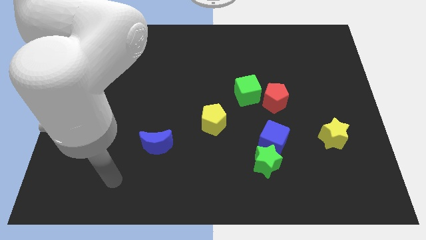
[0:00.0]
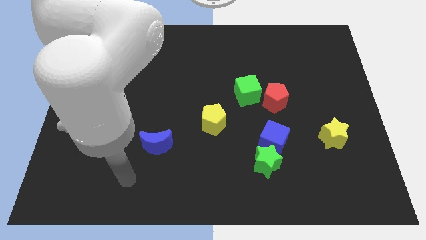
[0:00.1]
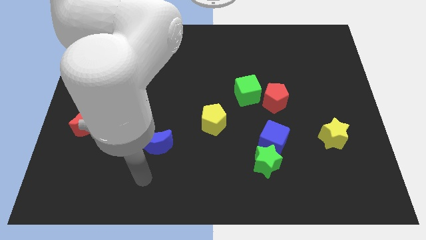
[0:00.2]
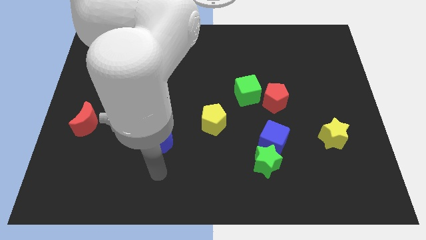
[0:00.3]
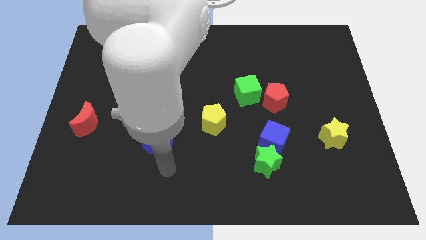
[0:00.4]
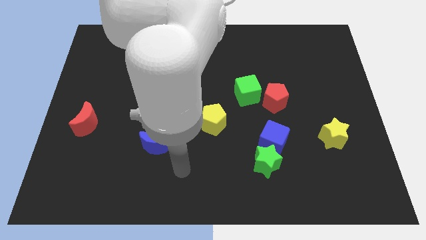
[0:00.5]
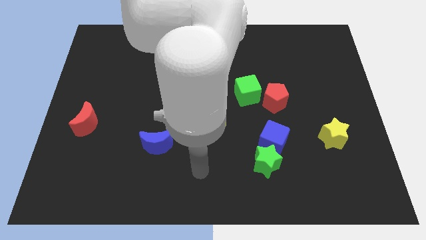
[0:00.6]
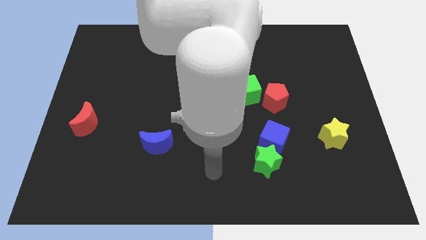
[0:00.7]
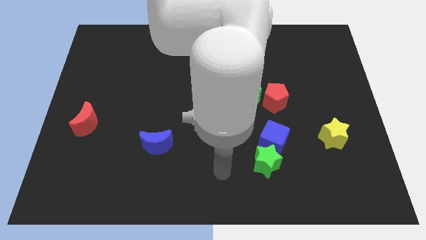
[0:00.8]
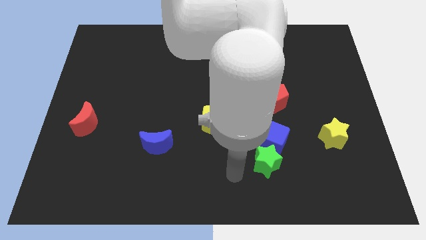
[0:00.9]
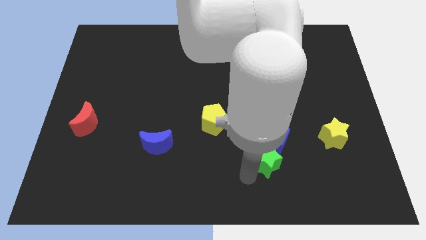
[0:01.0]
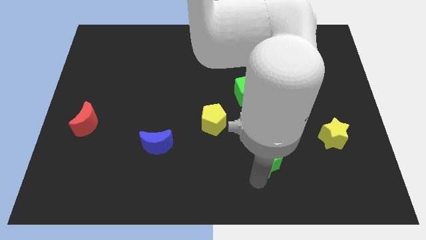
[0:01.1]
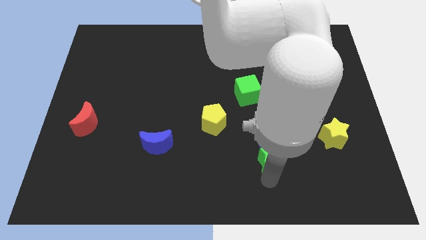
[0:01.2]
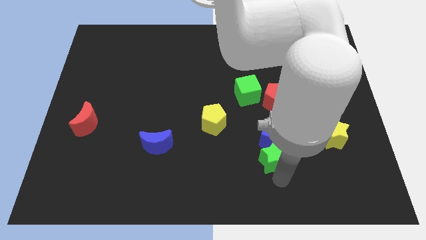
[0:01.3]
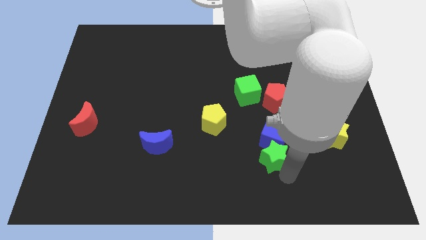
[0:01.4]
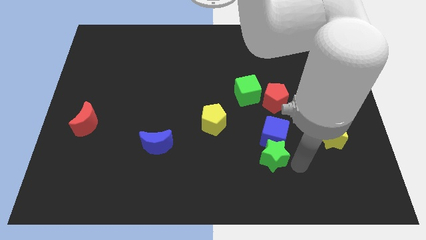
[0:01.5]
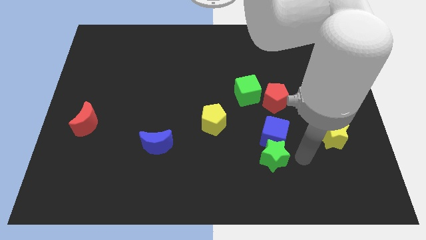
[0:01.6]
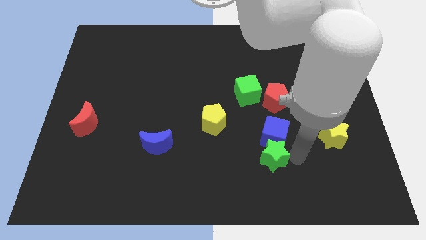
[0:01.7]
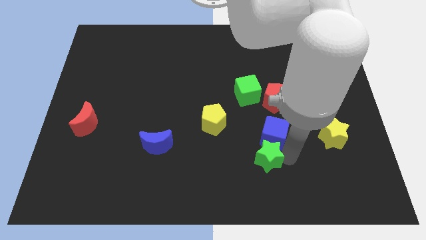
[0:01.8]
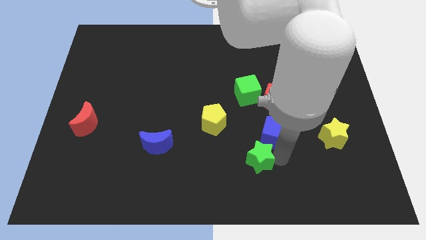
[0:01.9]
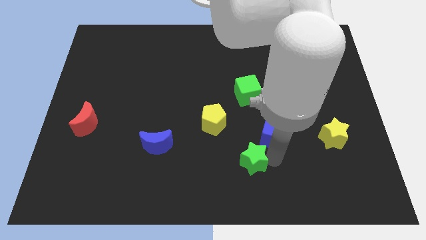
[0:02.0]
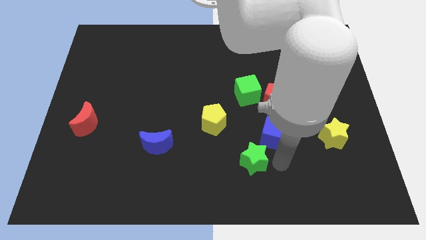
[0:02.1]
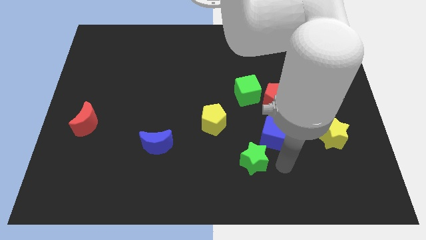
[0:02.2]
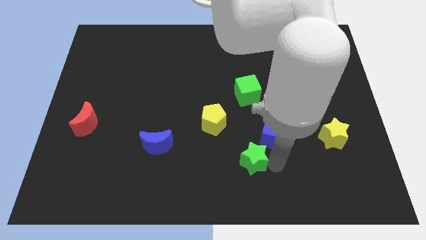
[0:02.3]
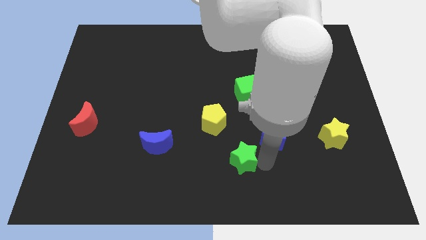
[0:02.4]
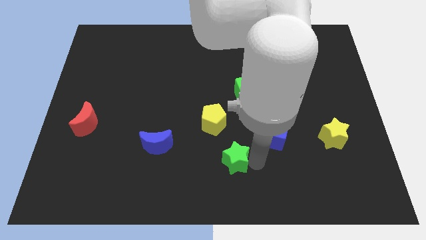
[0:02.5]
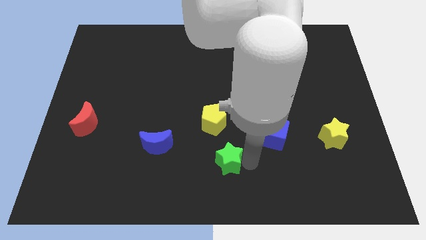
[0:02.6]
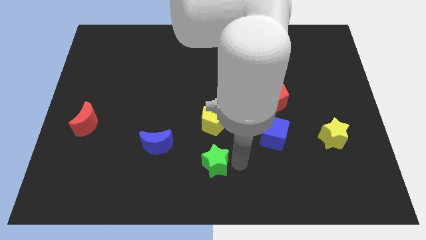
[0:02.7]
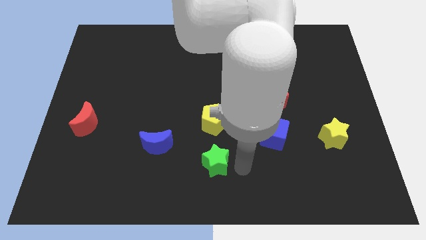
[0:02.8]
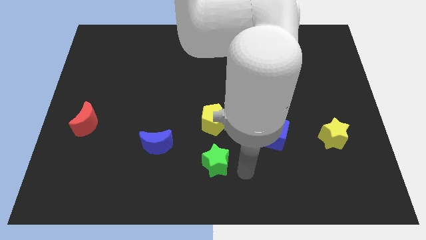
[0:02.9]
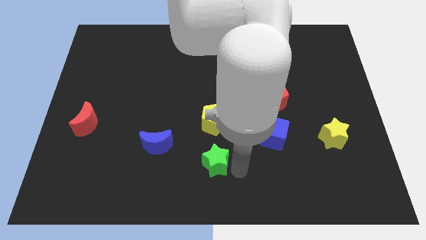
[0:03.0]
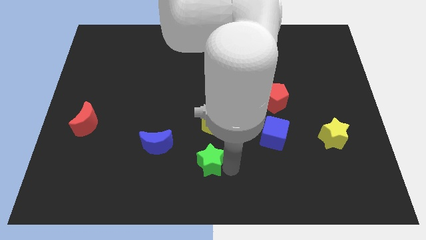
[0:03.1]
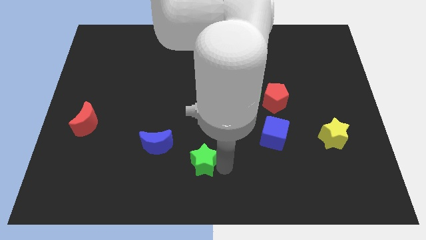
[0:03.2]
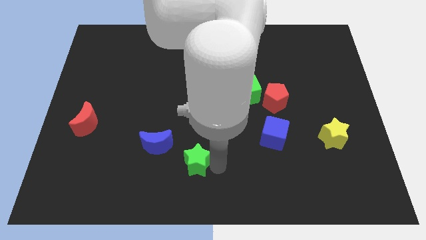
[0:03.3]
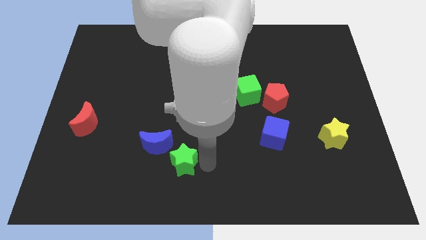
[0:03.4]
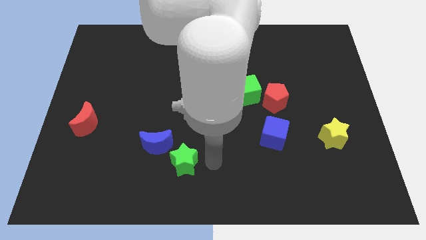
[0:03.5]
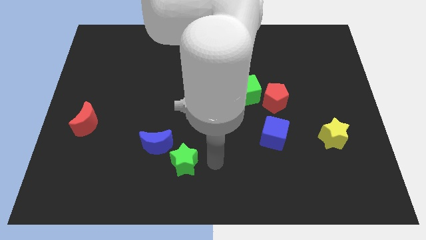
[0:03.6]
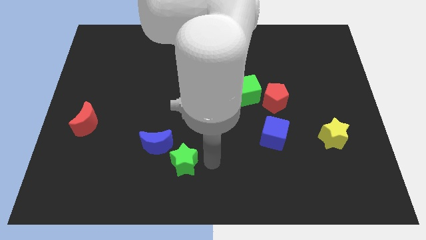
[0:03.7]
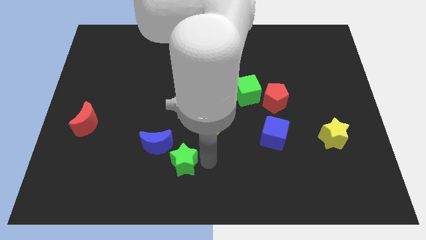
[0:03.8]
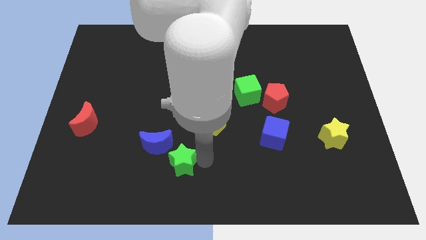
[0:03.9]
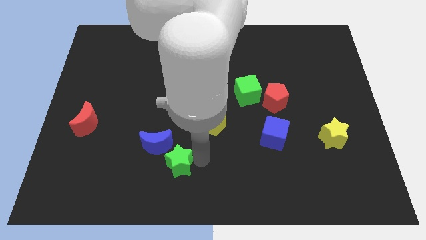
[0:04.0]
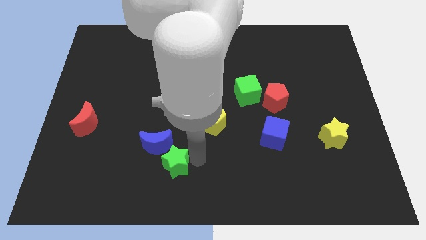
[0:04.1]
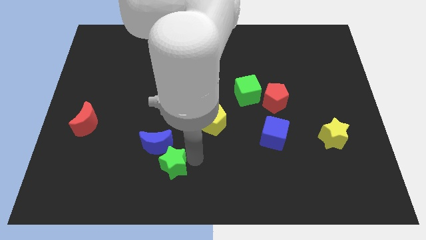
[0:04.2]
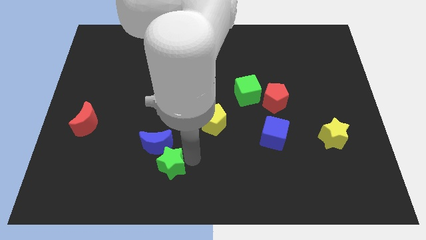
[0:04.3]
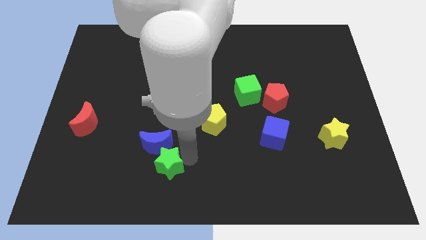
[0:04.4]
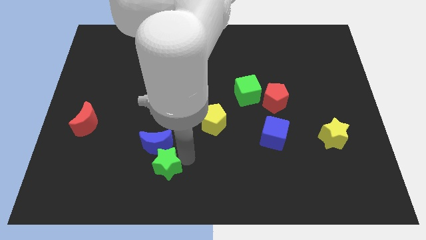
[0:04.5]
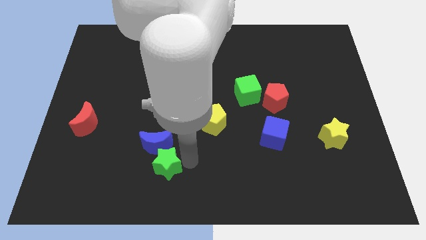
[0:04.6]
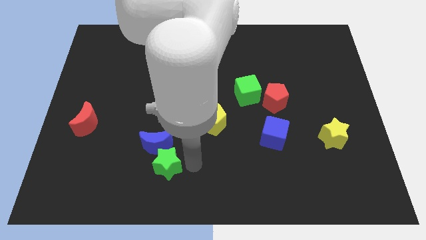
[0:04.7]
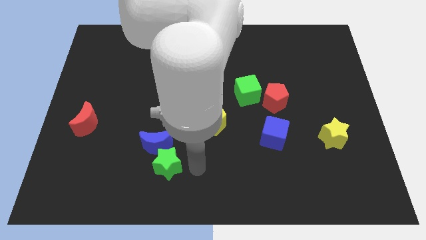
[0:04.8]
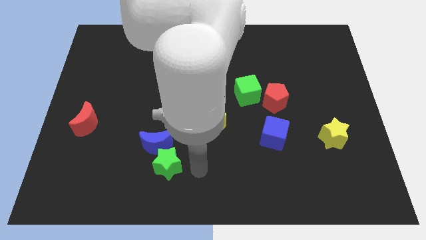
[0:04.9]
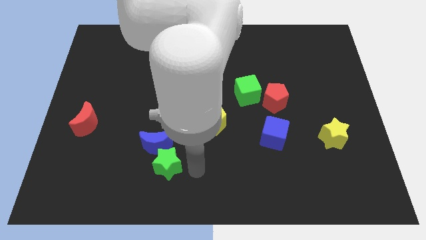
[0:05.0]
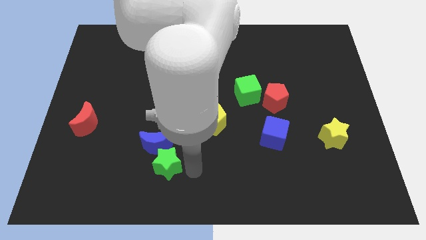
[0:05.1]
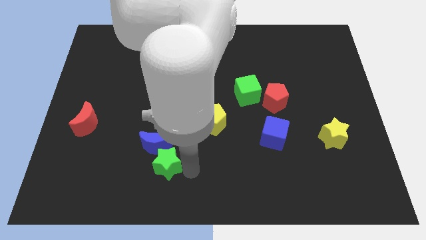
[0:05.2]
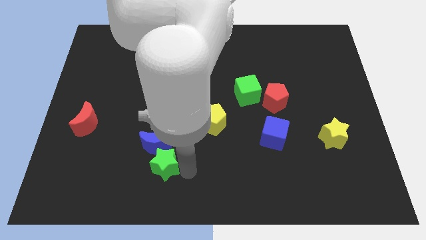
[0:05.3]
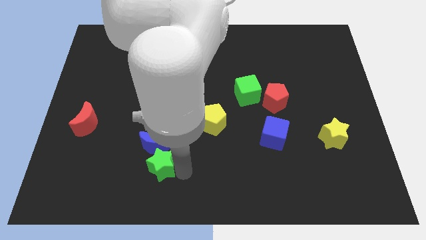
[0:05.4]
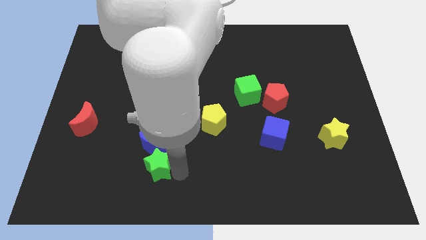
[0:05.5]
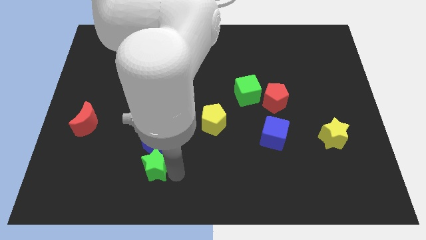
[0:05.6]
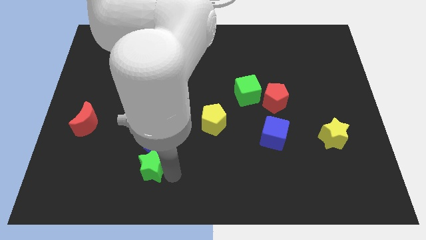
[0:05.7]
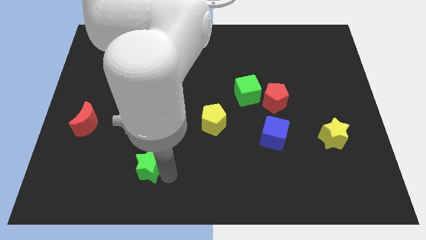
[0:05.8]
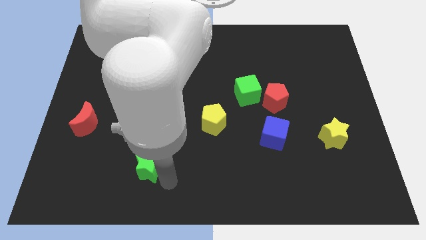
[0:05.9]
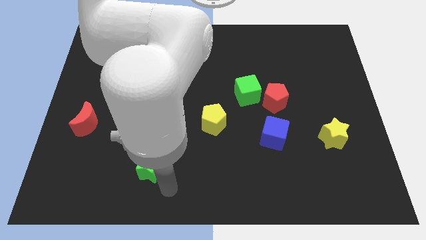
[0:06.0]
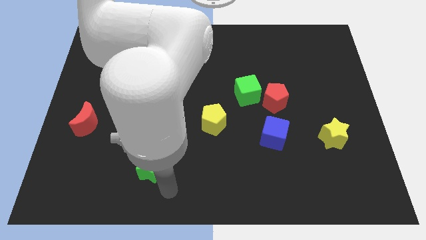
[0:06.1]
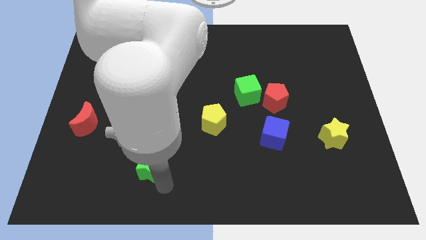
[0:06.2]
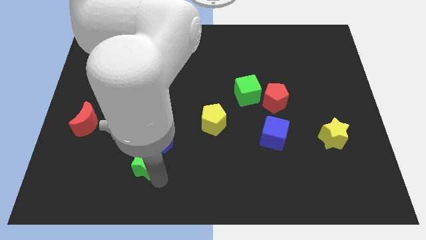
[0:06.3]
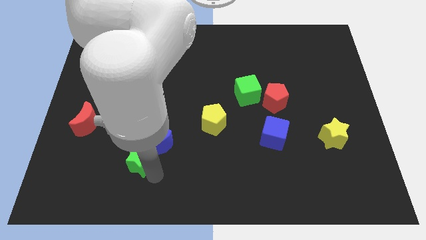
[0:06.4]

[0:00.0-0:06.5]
put the green star to the left side of the blue moon

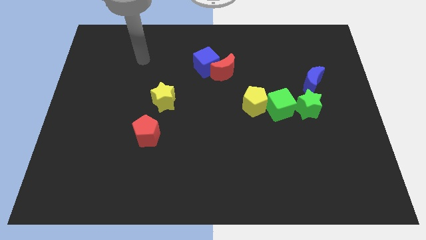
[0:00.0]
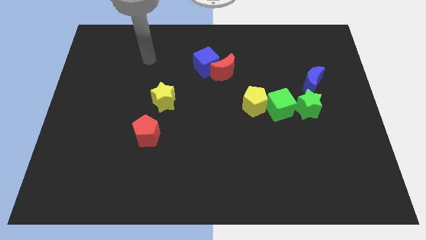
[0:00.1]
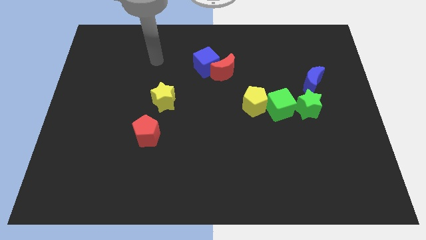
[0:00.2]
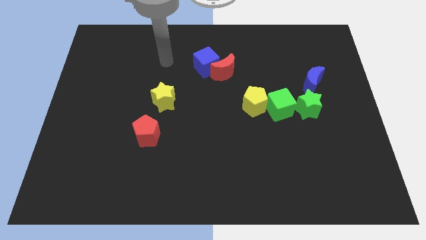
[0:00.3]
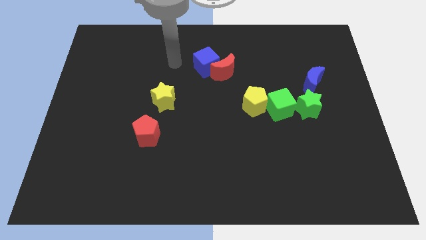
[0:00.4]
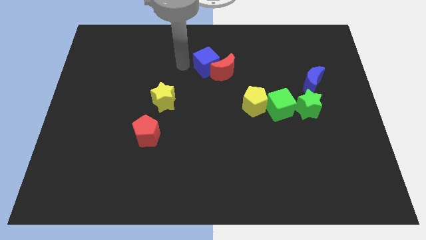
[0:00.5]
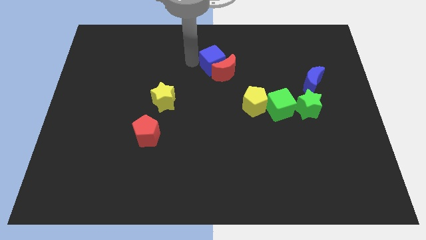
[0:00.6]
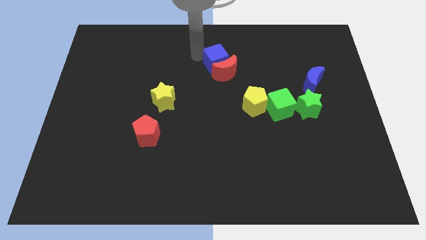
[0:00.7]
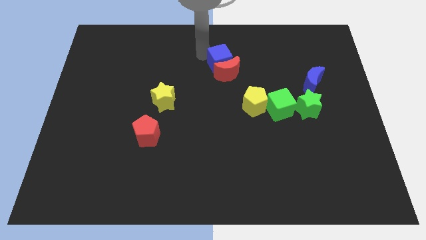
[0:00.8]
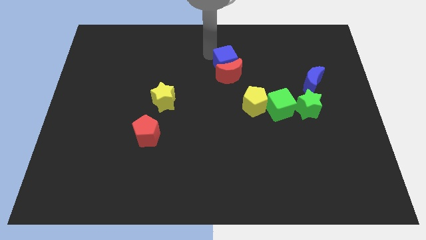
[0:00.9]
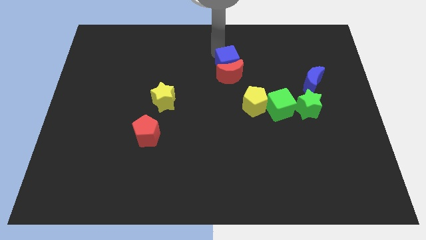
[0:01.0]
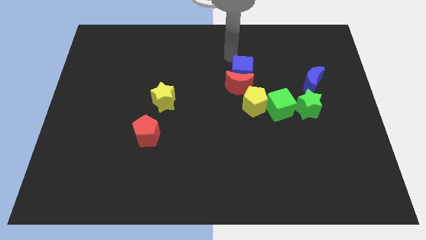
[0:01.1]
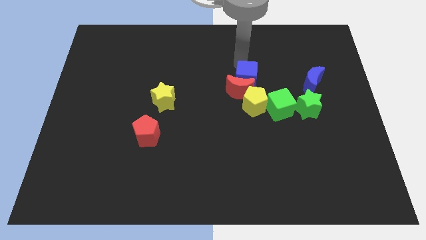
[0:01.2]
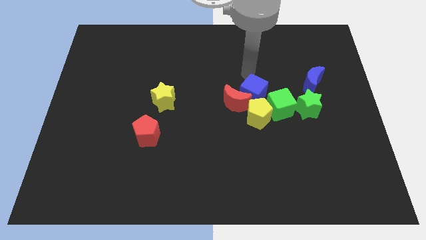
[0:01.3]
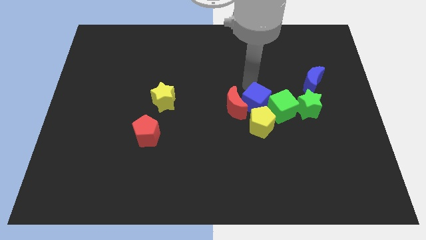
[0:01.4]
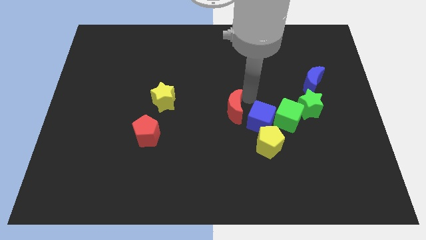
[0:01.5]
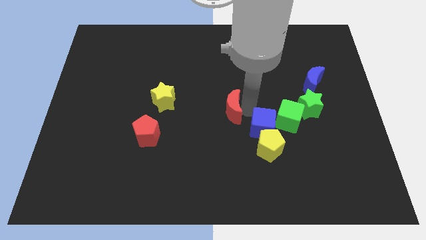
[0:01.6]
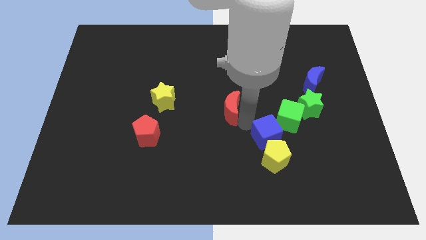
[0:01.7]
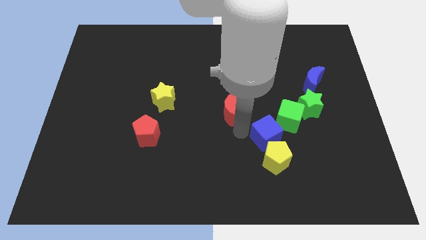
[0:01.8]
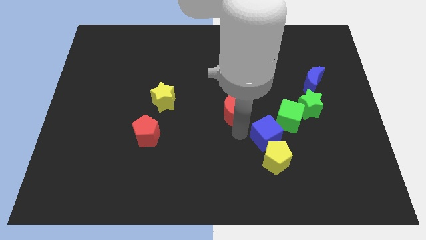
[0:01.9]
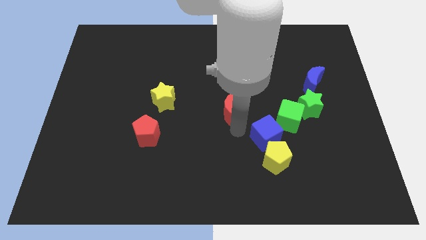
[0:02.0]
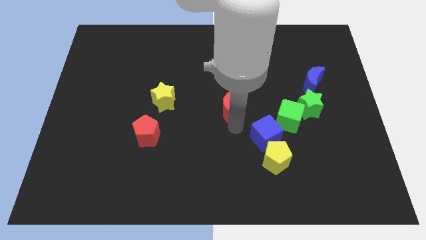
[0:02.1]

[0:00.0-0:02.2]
move the red moon right of the yellow star
